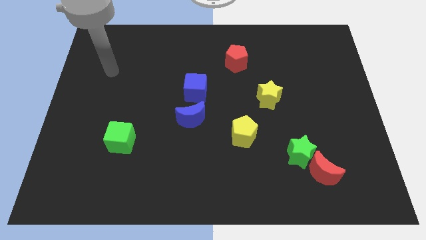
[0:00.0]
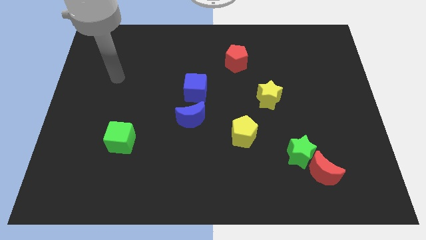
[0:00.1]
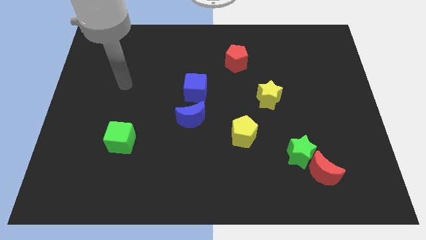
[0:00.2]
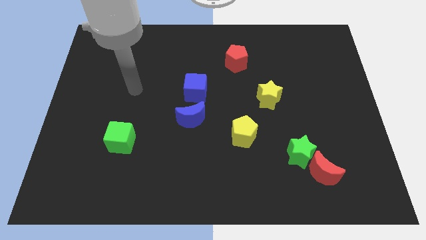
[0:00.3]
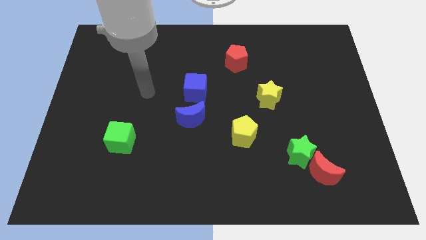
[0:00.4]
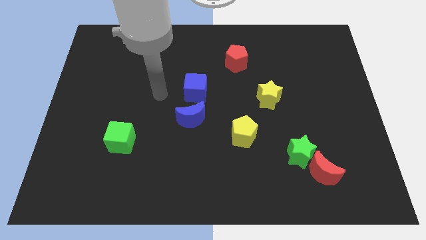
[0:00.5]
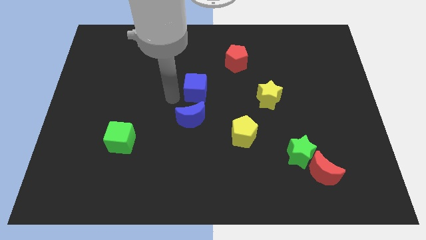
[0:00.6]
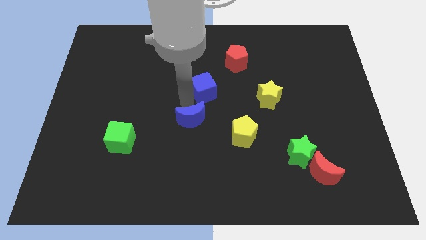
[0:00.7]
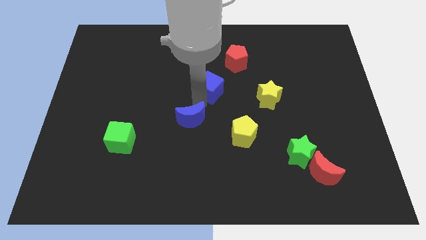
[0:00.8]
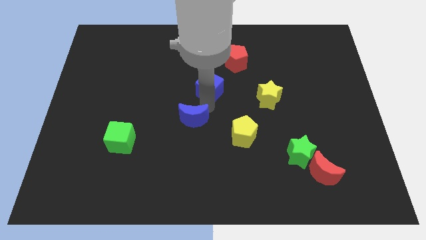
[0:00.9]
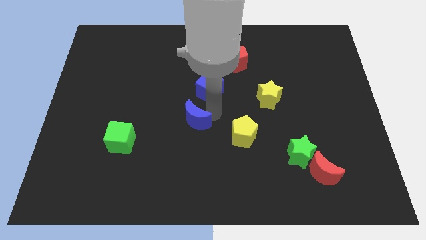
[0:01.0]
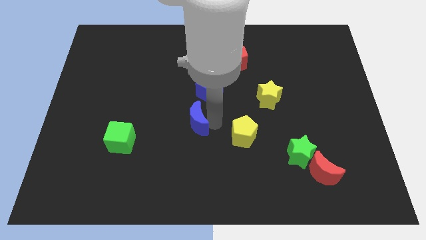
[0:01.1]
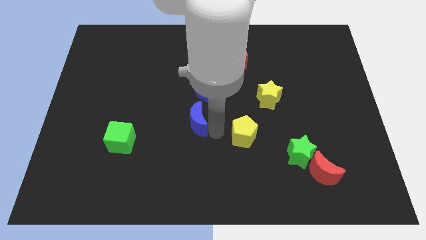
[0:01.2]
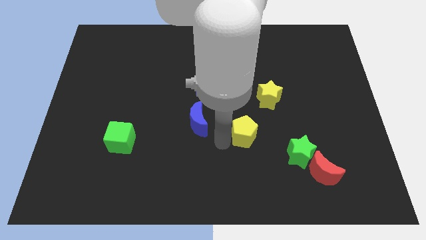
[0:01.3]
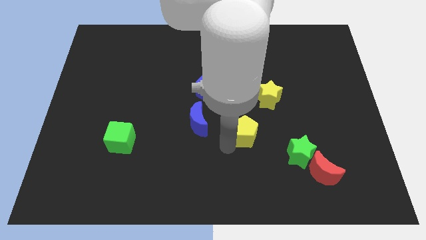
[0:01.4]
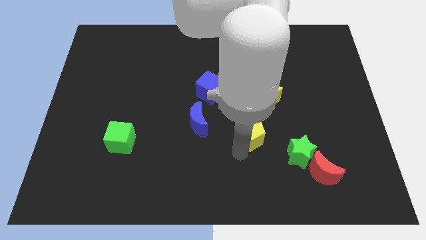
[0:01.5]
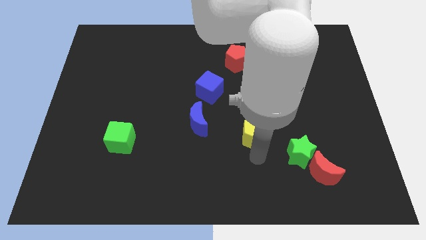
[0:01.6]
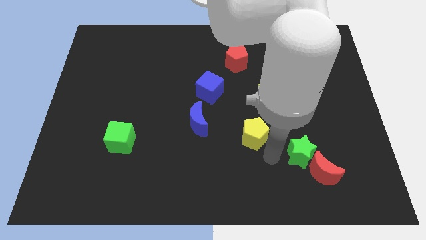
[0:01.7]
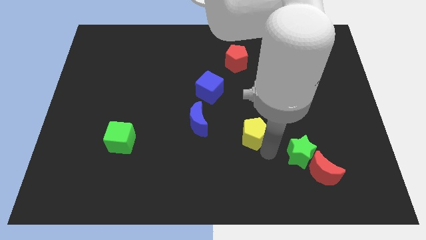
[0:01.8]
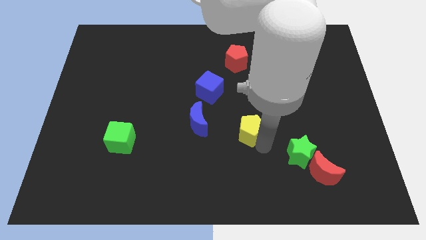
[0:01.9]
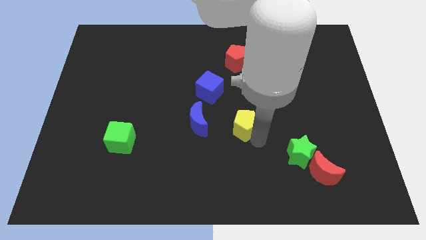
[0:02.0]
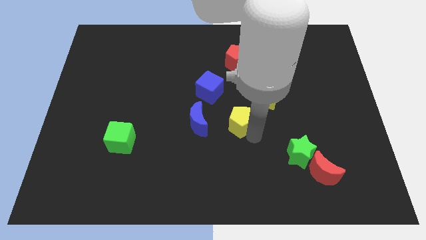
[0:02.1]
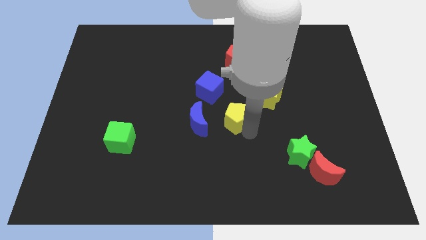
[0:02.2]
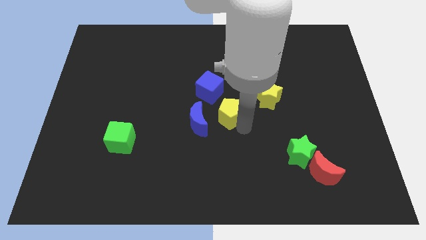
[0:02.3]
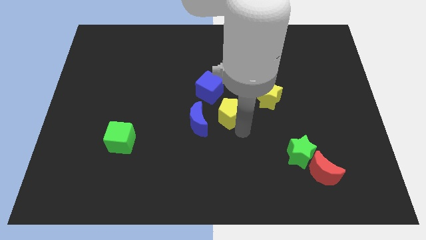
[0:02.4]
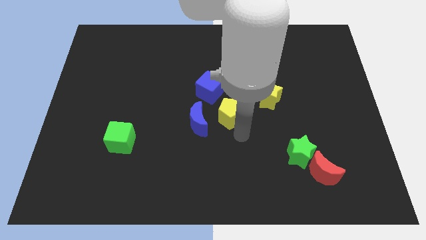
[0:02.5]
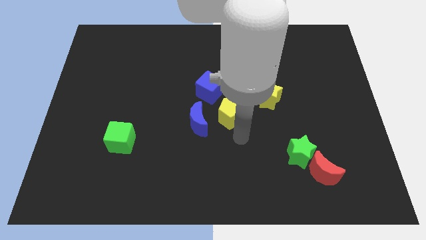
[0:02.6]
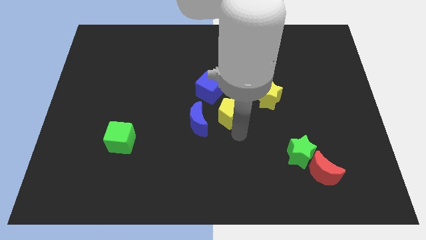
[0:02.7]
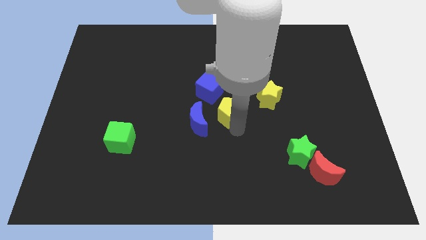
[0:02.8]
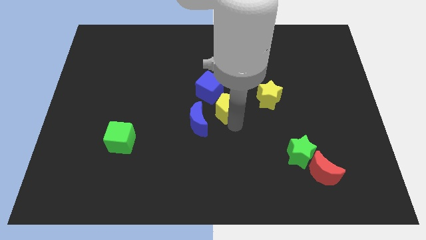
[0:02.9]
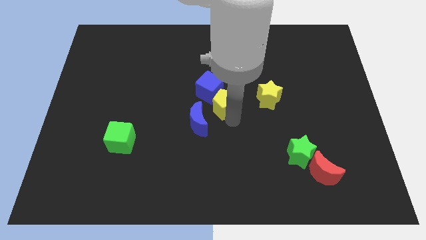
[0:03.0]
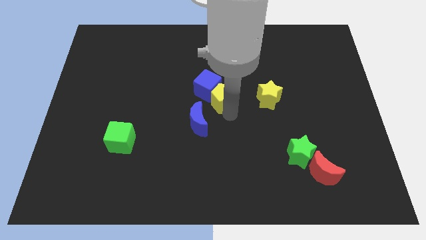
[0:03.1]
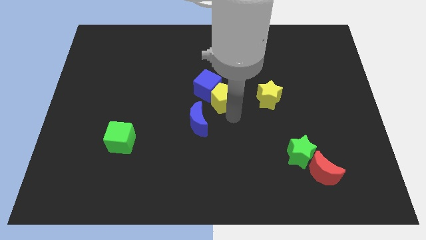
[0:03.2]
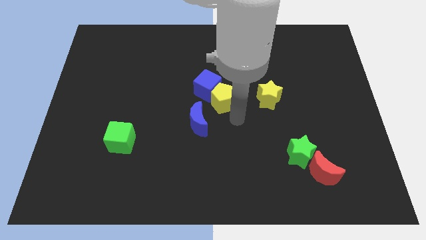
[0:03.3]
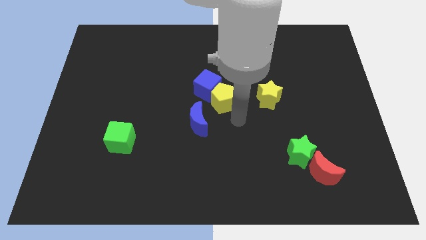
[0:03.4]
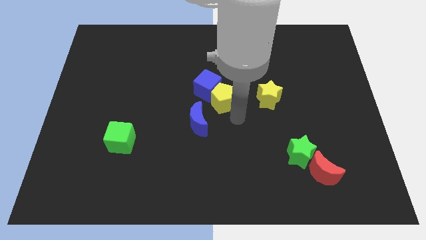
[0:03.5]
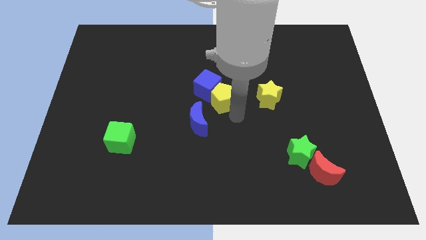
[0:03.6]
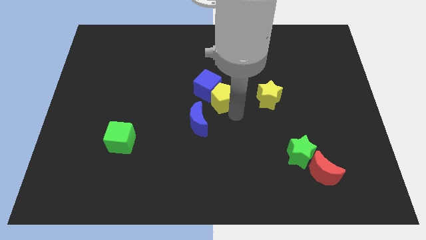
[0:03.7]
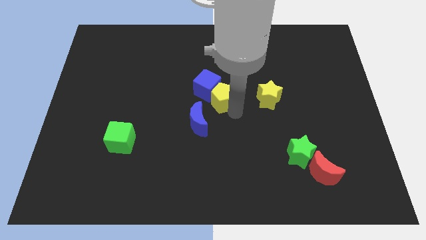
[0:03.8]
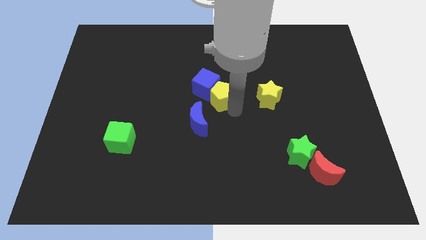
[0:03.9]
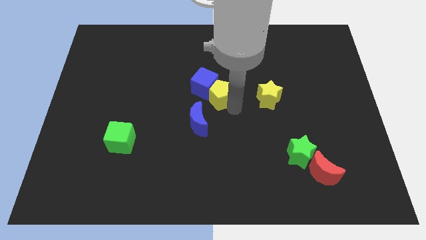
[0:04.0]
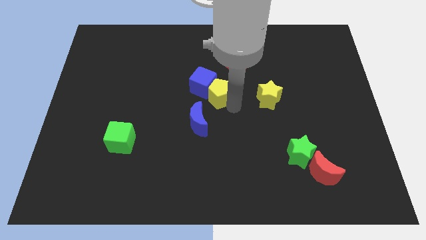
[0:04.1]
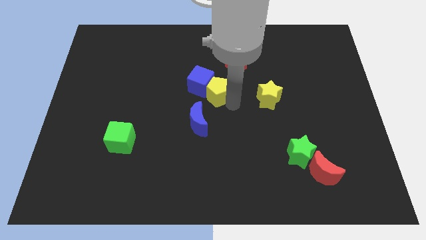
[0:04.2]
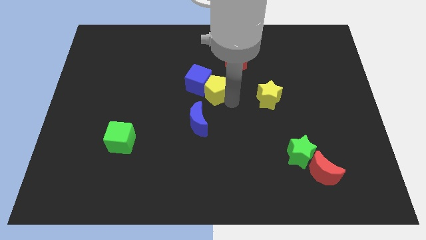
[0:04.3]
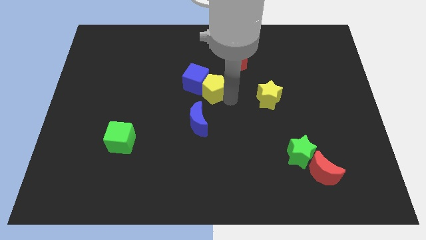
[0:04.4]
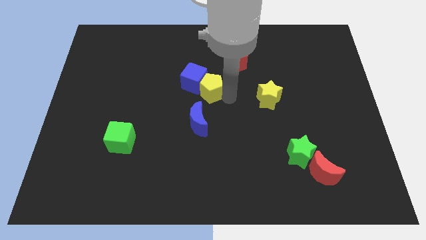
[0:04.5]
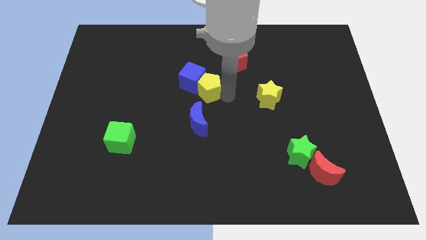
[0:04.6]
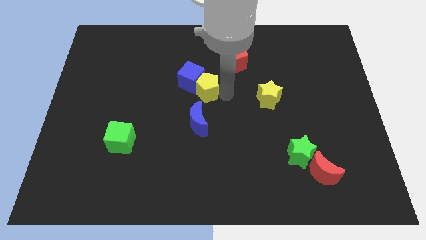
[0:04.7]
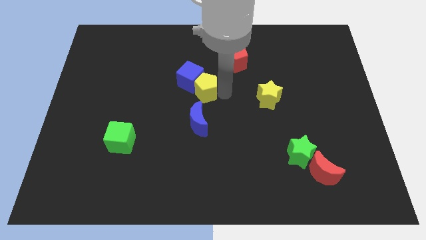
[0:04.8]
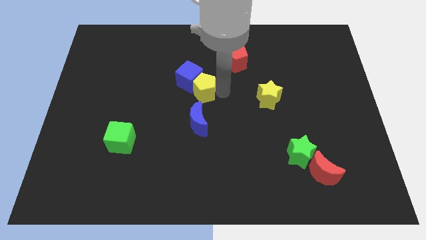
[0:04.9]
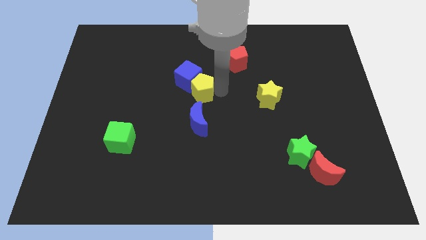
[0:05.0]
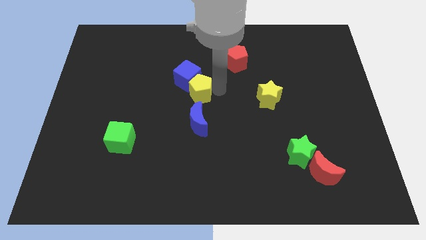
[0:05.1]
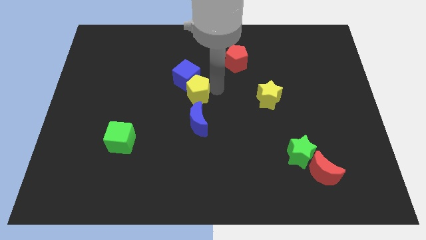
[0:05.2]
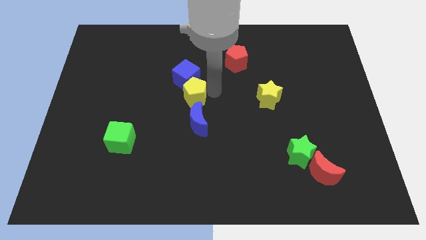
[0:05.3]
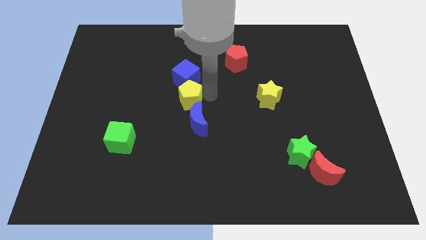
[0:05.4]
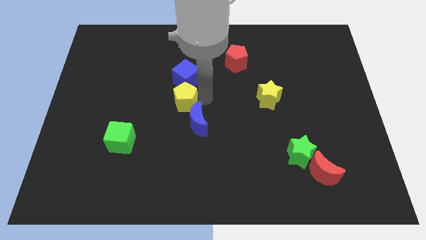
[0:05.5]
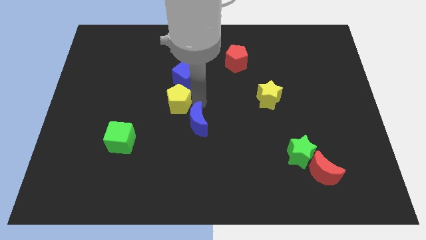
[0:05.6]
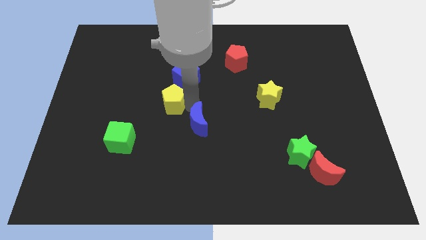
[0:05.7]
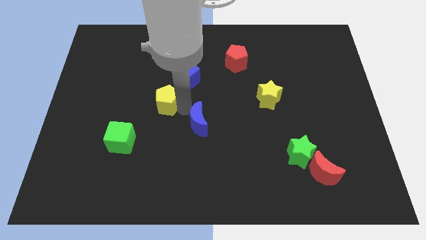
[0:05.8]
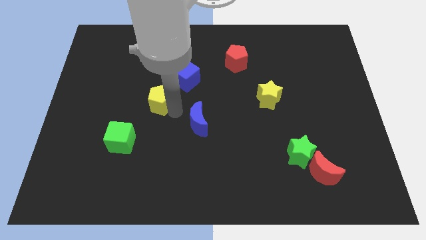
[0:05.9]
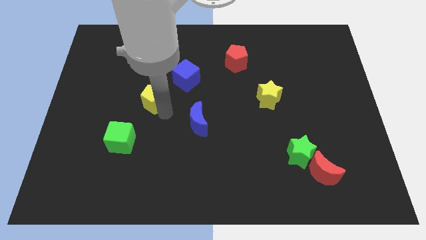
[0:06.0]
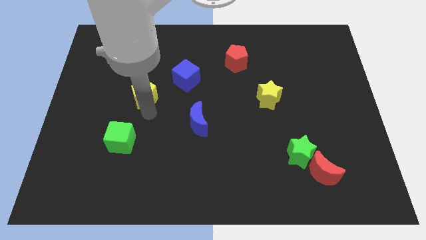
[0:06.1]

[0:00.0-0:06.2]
move the yellow pentagon up and then left

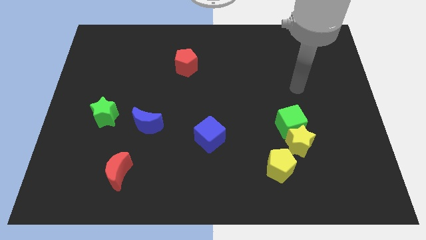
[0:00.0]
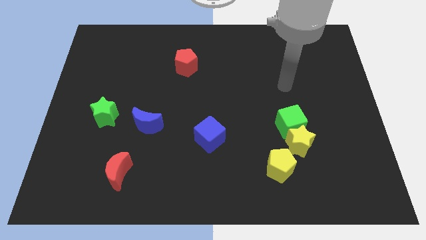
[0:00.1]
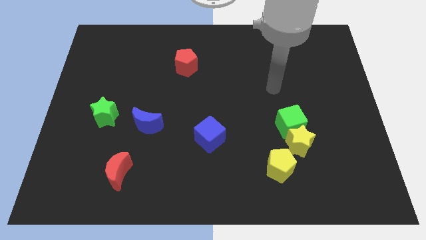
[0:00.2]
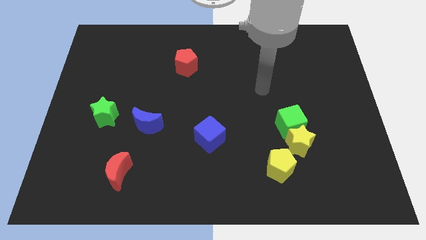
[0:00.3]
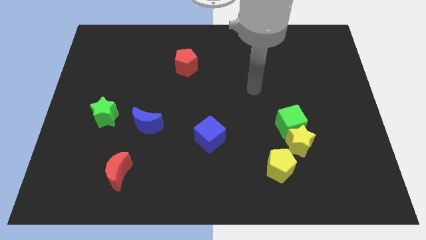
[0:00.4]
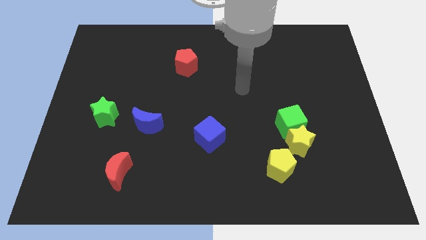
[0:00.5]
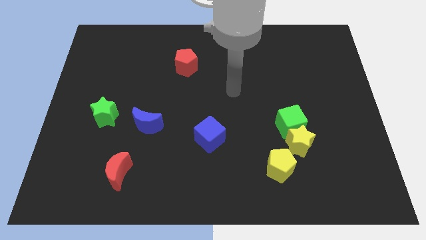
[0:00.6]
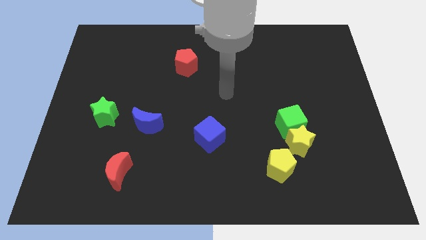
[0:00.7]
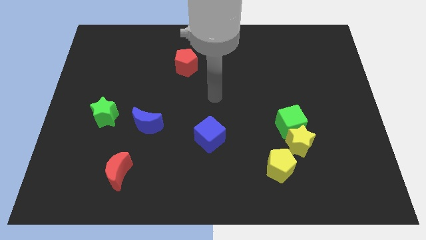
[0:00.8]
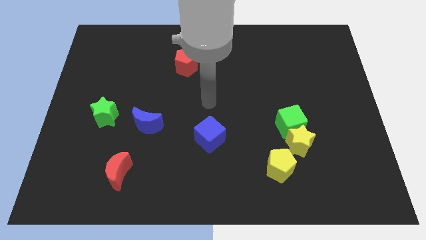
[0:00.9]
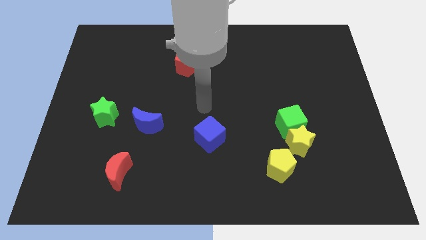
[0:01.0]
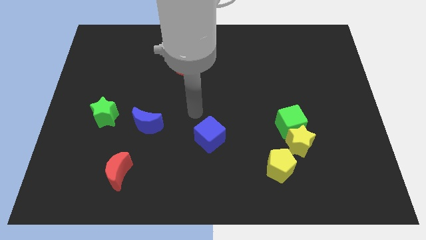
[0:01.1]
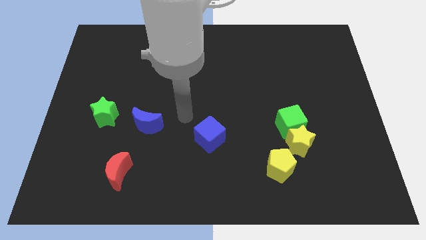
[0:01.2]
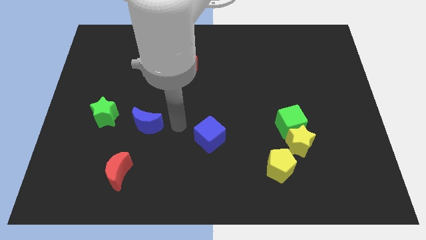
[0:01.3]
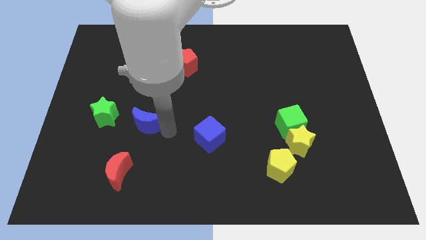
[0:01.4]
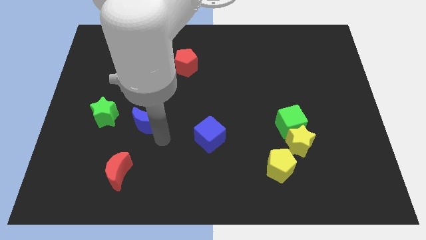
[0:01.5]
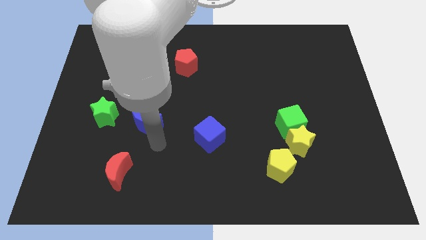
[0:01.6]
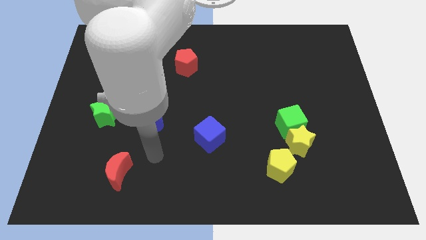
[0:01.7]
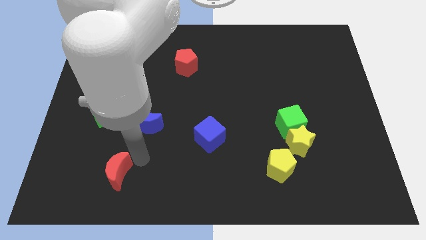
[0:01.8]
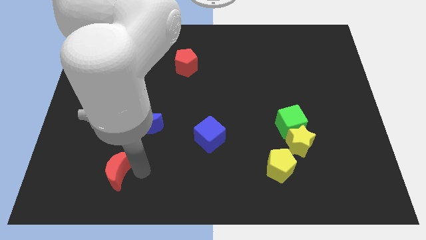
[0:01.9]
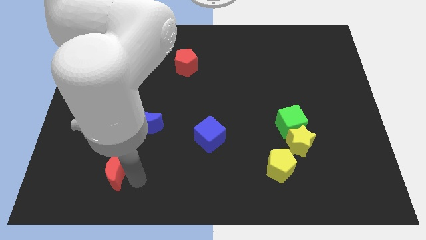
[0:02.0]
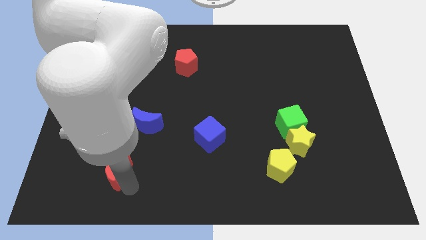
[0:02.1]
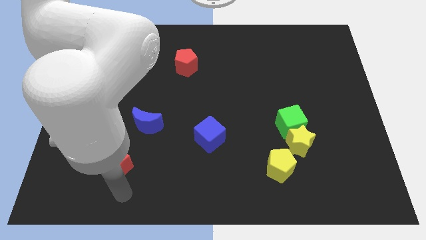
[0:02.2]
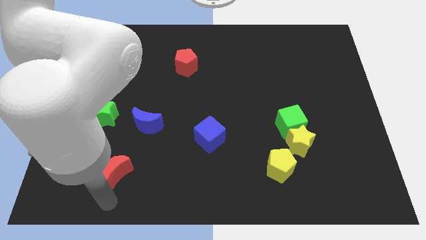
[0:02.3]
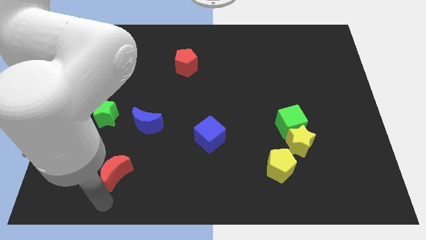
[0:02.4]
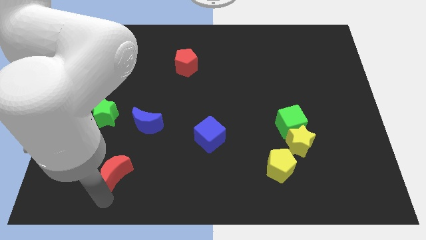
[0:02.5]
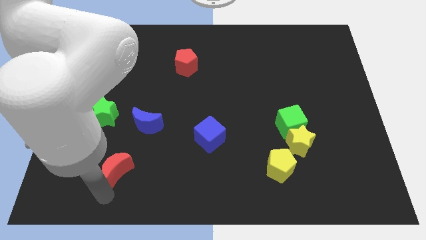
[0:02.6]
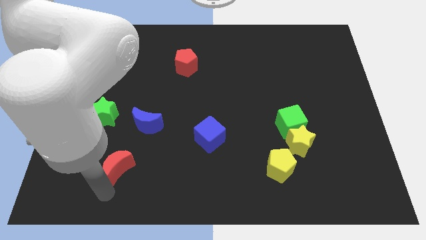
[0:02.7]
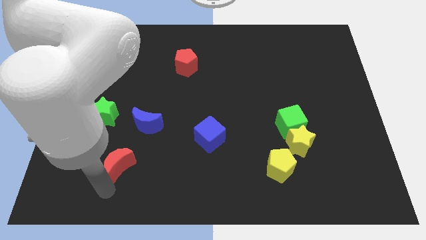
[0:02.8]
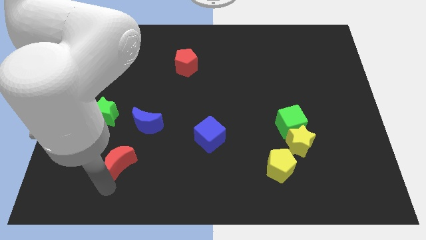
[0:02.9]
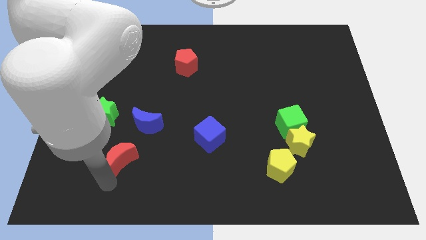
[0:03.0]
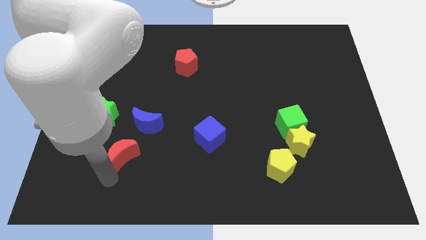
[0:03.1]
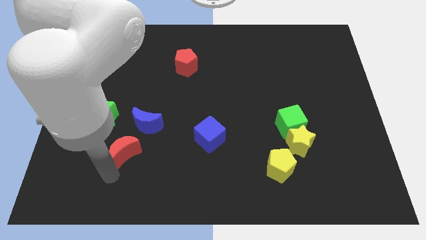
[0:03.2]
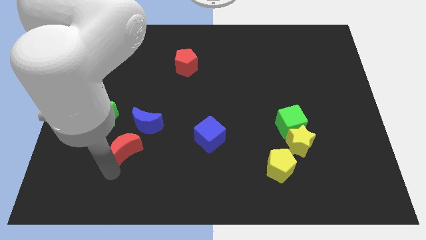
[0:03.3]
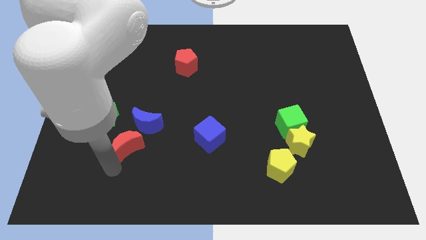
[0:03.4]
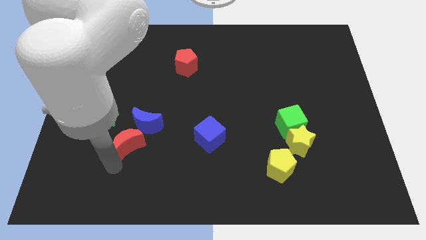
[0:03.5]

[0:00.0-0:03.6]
slide the red moon a bit upwards
